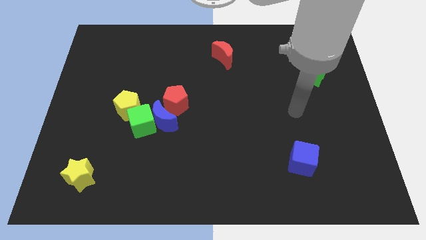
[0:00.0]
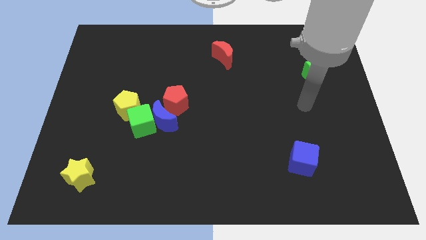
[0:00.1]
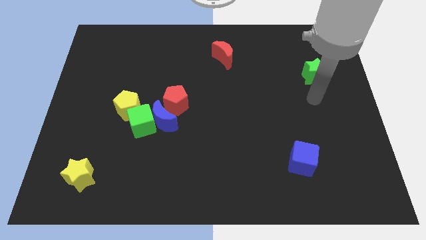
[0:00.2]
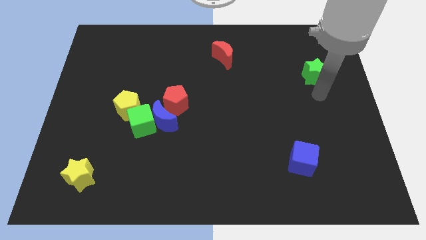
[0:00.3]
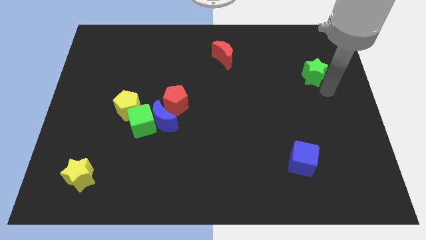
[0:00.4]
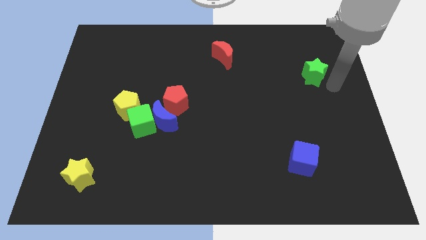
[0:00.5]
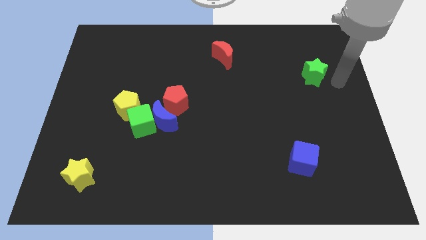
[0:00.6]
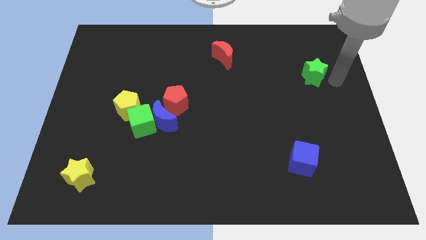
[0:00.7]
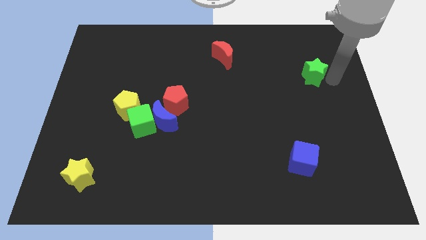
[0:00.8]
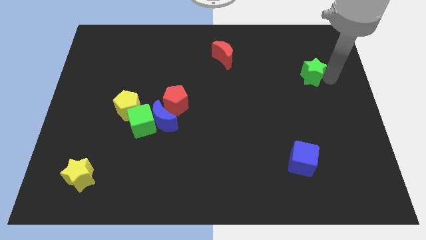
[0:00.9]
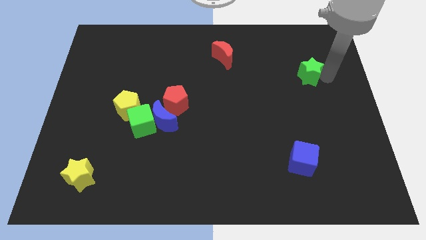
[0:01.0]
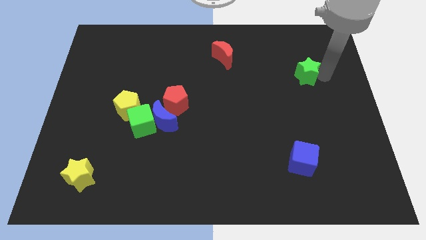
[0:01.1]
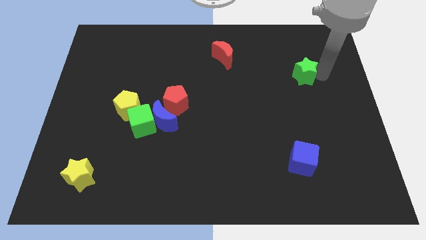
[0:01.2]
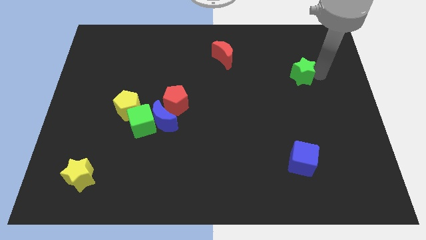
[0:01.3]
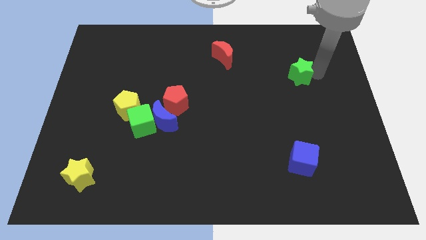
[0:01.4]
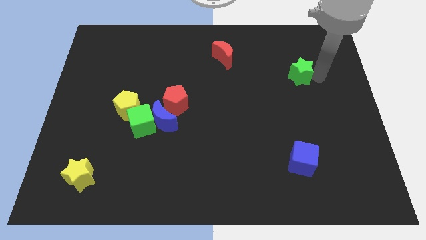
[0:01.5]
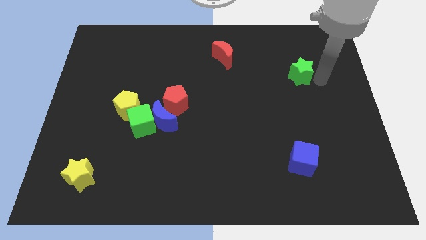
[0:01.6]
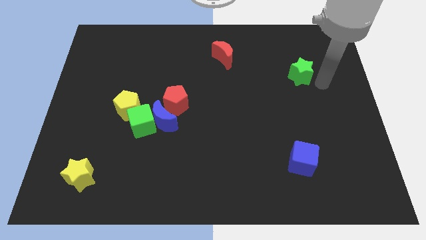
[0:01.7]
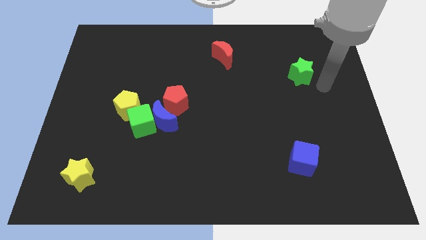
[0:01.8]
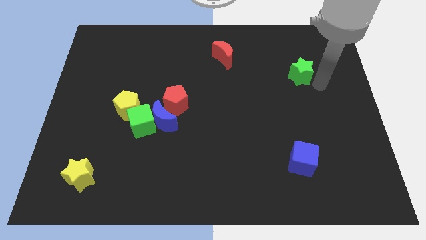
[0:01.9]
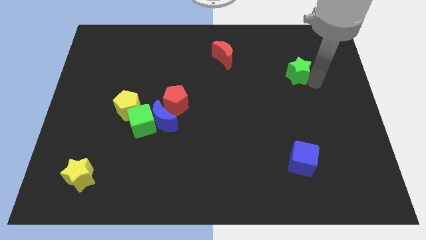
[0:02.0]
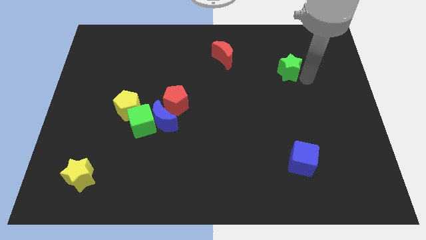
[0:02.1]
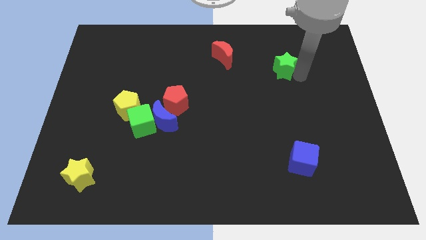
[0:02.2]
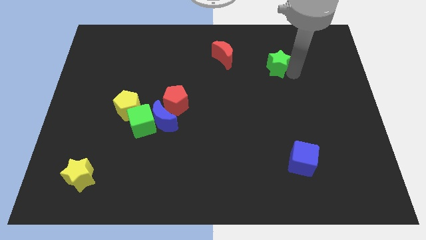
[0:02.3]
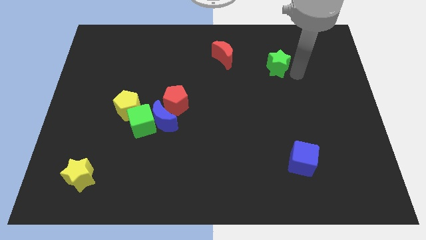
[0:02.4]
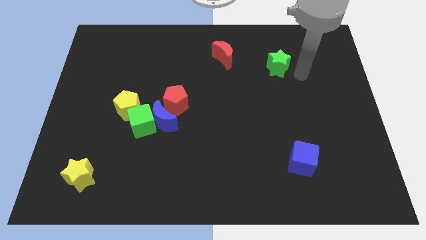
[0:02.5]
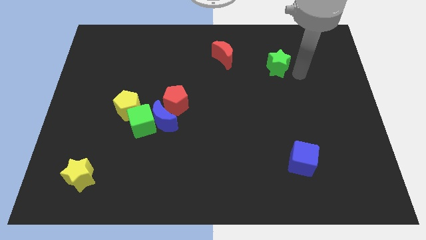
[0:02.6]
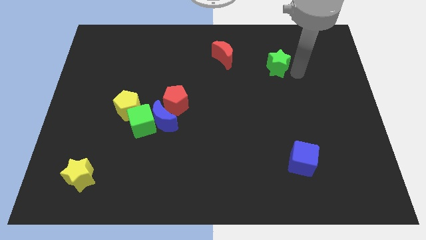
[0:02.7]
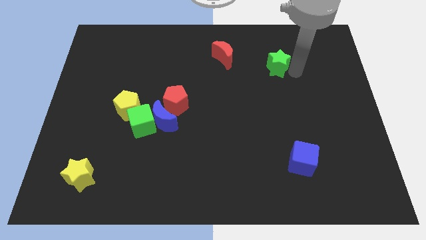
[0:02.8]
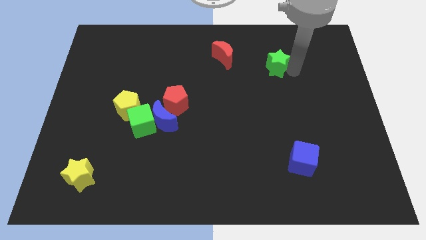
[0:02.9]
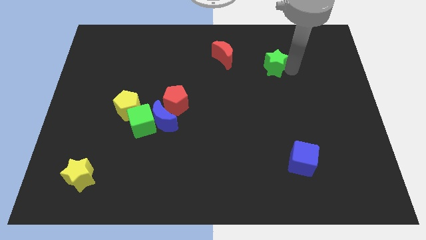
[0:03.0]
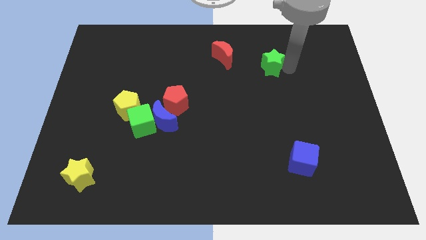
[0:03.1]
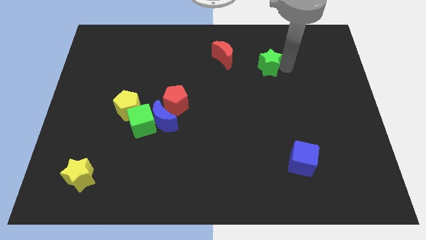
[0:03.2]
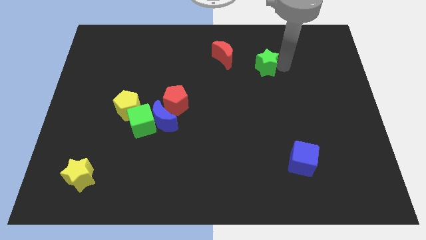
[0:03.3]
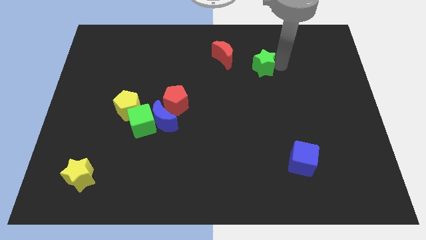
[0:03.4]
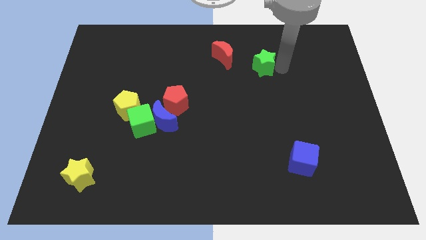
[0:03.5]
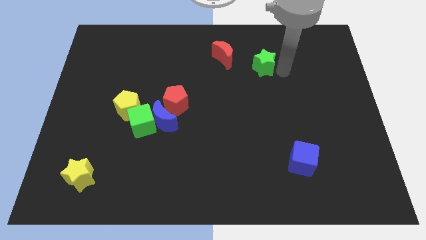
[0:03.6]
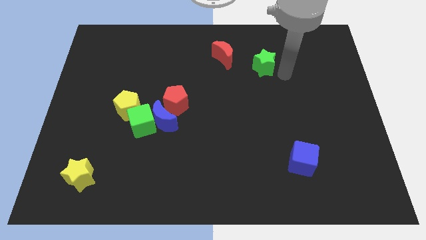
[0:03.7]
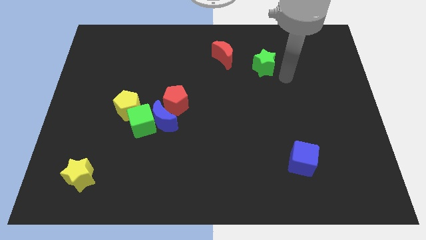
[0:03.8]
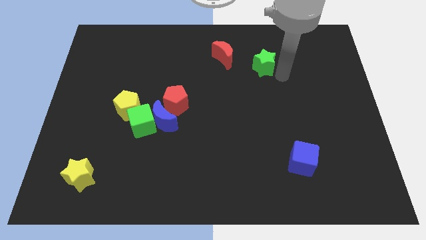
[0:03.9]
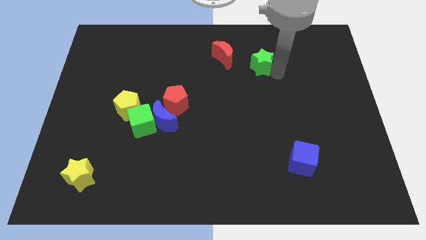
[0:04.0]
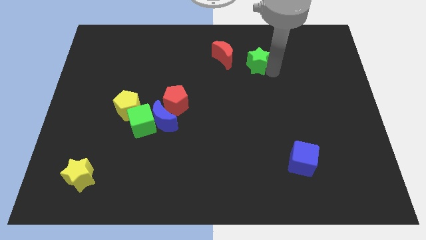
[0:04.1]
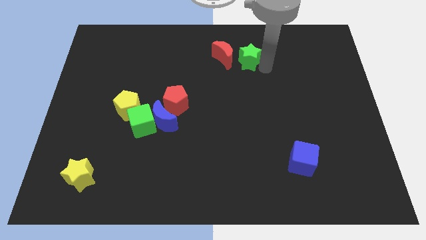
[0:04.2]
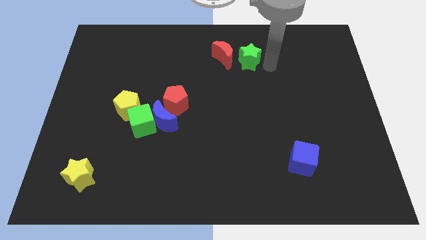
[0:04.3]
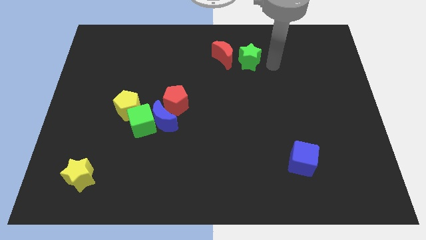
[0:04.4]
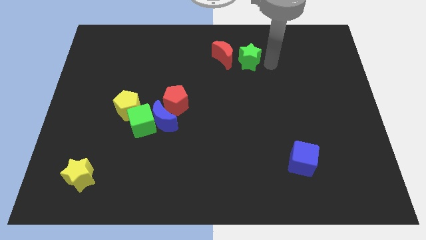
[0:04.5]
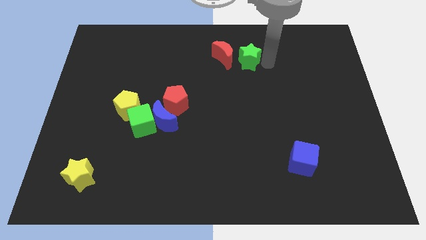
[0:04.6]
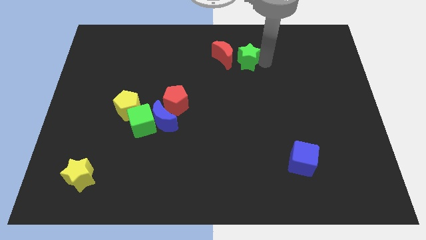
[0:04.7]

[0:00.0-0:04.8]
push the green star close to the red moon

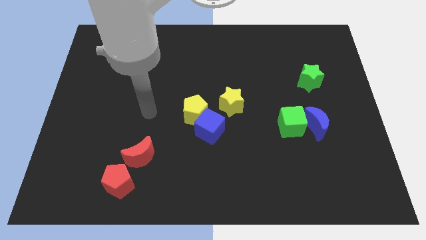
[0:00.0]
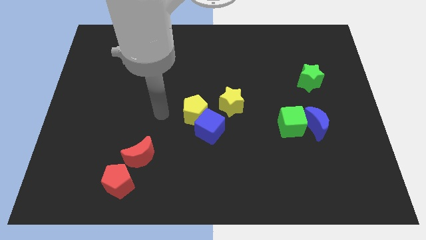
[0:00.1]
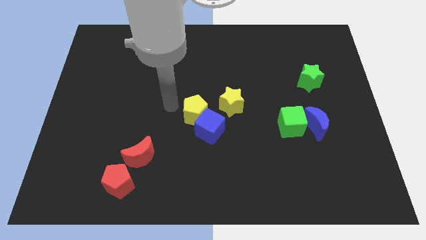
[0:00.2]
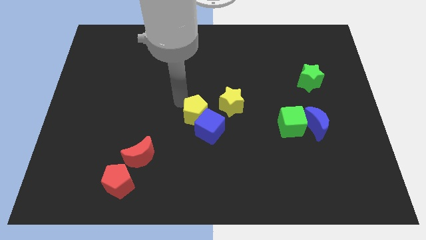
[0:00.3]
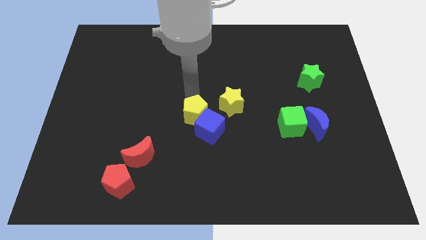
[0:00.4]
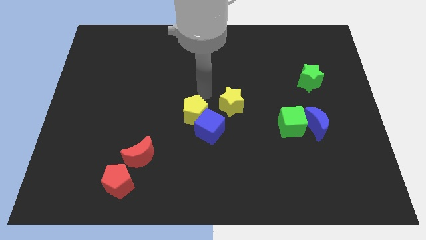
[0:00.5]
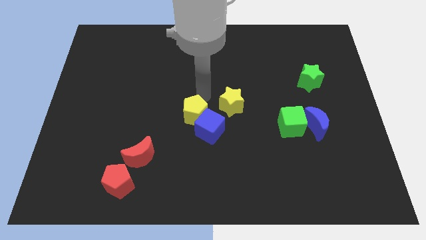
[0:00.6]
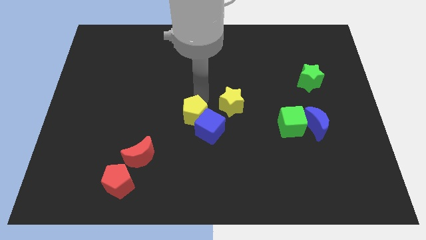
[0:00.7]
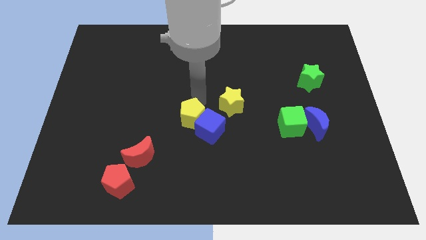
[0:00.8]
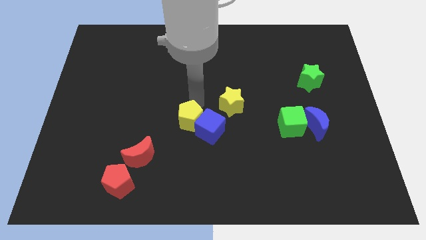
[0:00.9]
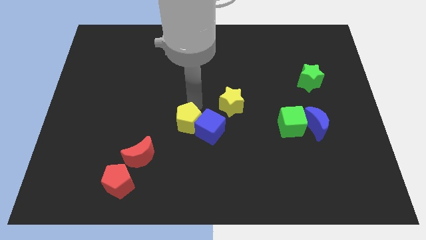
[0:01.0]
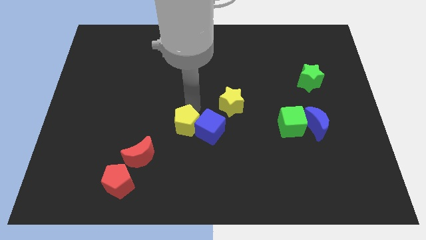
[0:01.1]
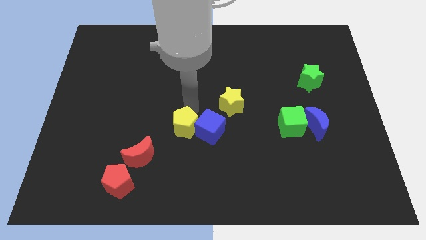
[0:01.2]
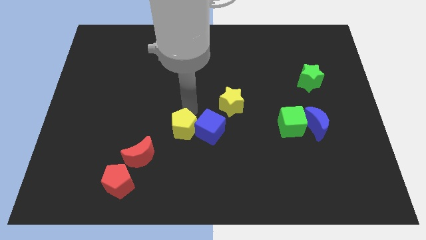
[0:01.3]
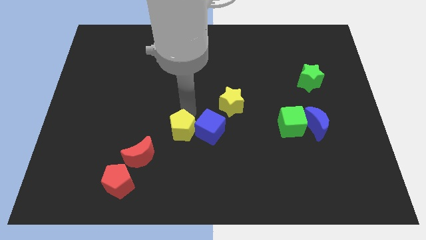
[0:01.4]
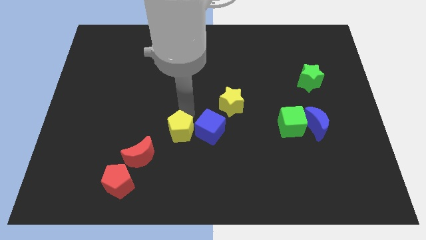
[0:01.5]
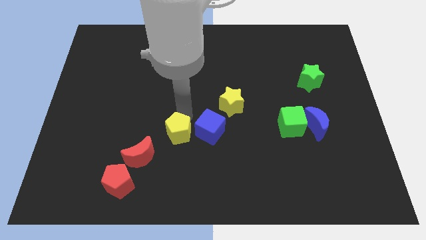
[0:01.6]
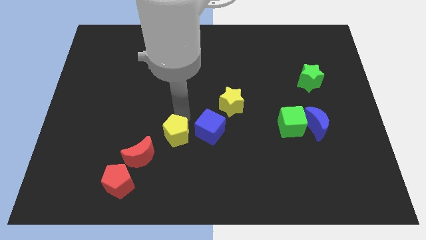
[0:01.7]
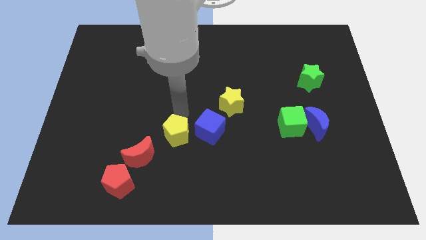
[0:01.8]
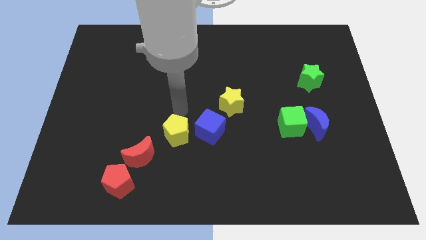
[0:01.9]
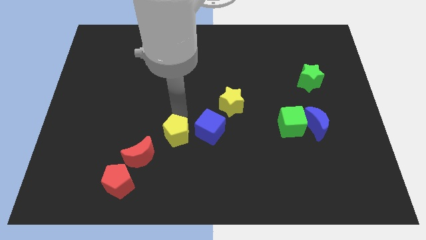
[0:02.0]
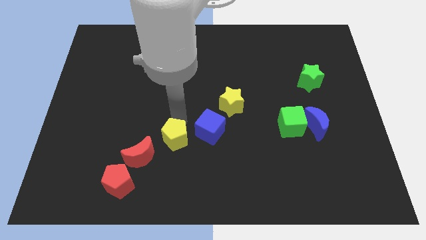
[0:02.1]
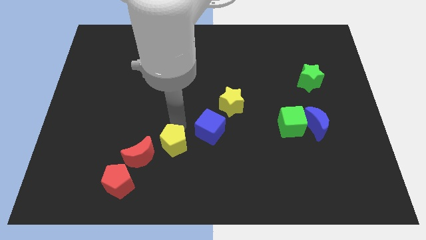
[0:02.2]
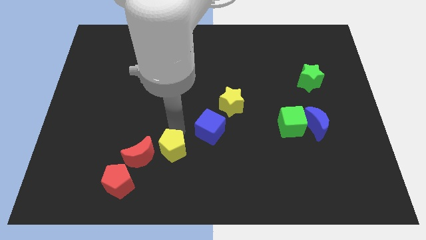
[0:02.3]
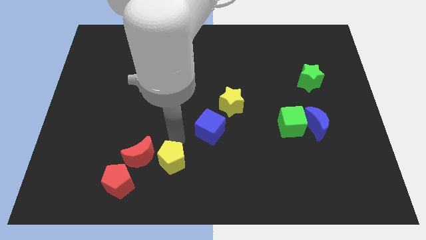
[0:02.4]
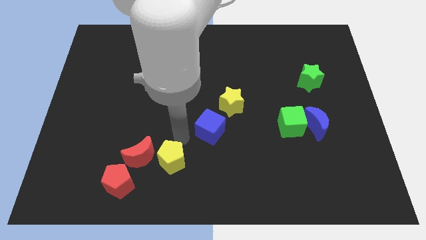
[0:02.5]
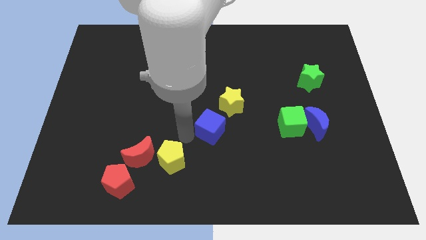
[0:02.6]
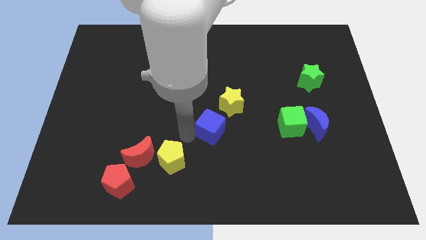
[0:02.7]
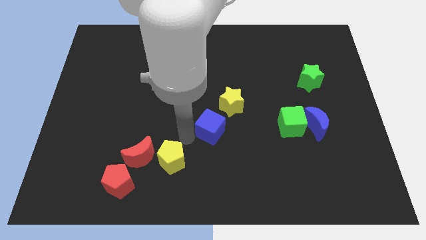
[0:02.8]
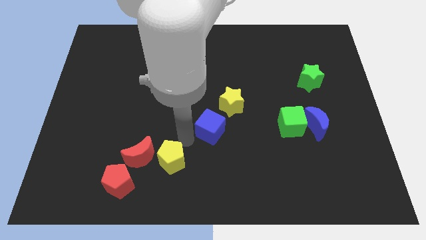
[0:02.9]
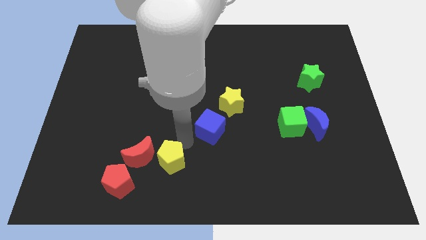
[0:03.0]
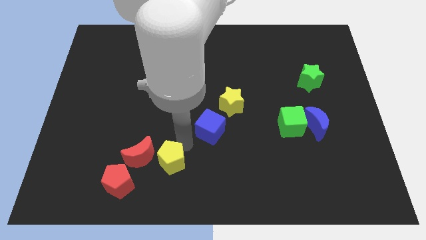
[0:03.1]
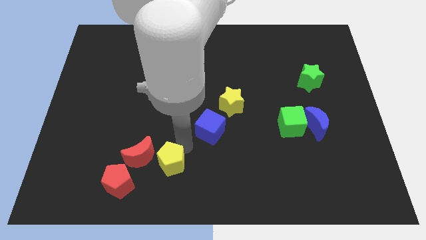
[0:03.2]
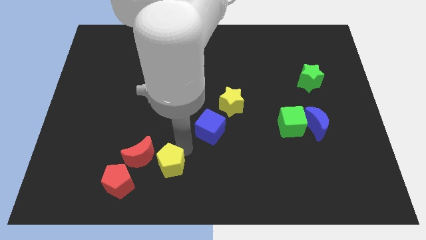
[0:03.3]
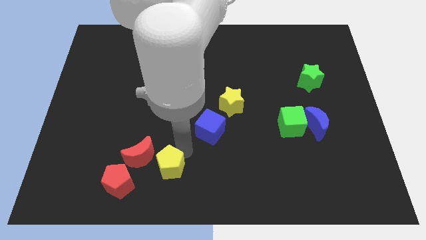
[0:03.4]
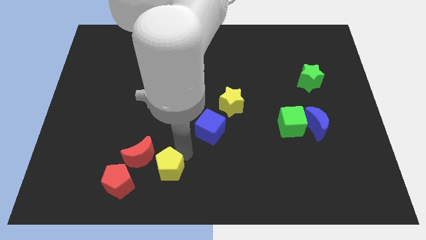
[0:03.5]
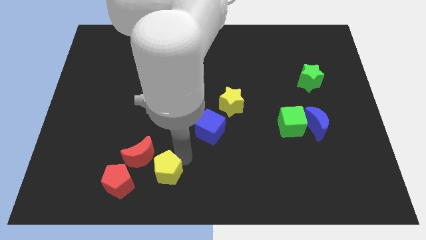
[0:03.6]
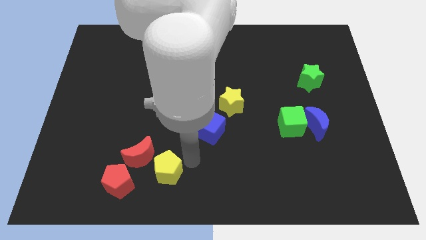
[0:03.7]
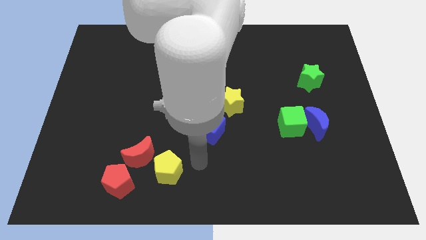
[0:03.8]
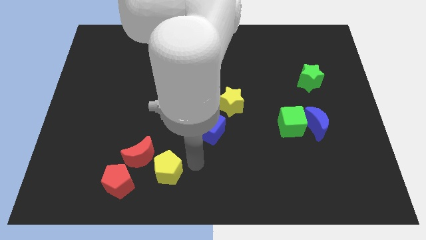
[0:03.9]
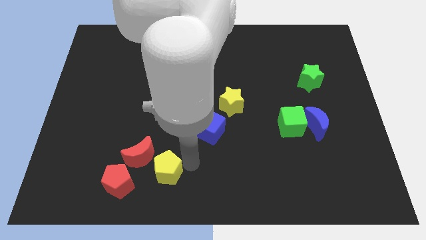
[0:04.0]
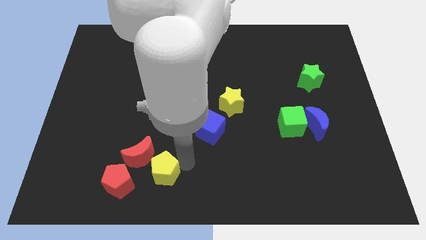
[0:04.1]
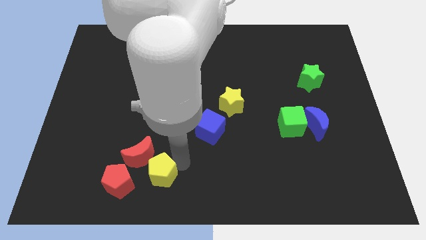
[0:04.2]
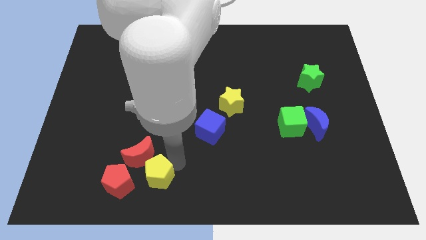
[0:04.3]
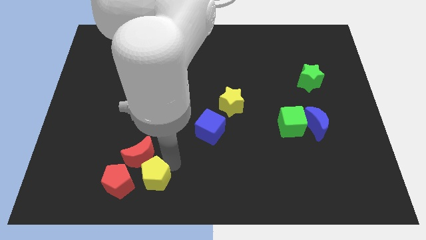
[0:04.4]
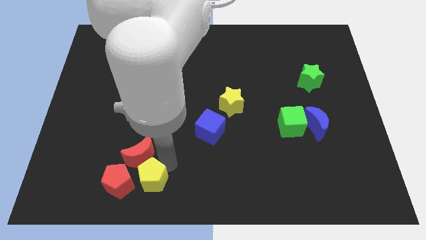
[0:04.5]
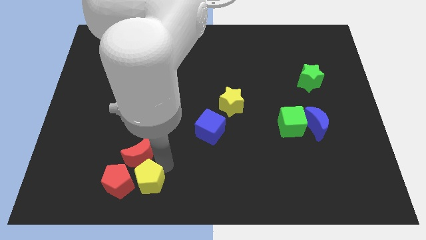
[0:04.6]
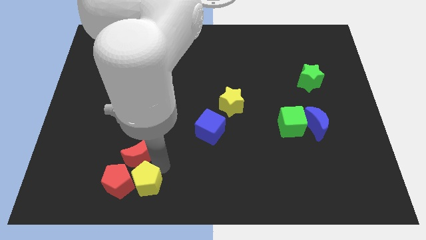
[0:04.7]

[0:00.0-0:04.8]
put the yellow pentagon towards the red pentagon
